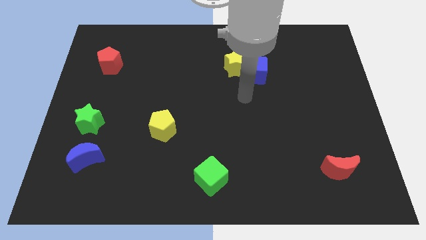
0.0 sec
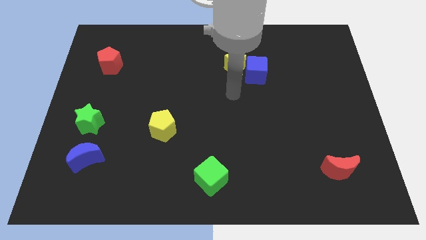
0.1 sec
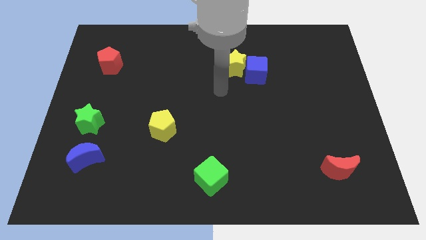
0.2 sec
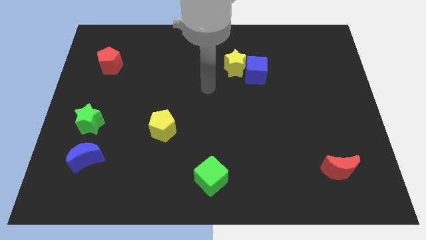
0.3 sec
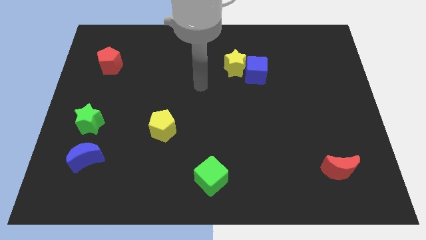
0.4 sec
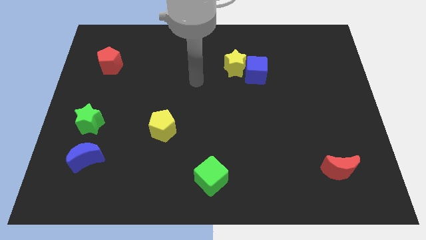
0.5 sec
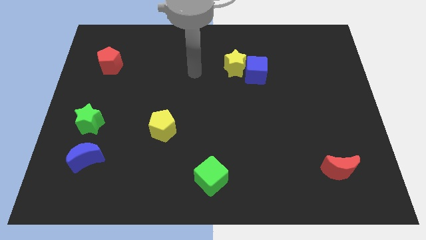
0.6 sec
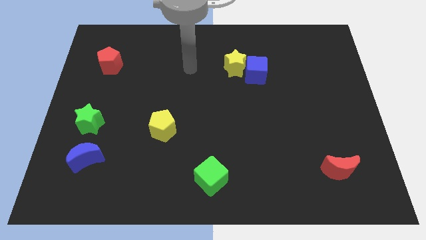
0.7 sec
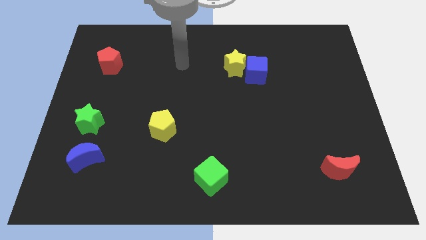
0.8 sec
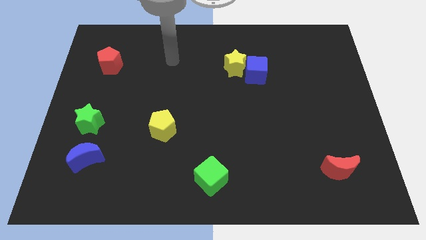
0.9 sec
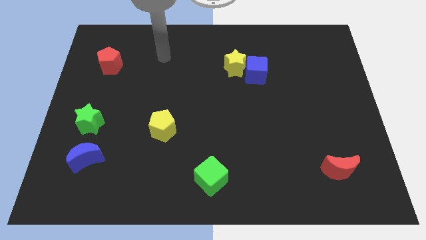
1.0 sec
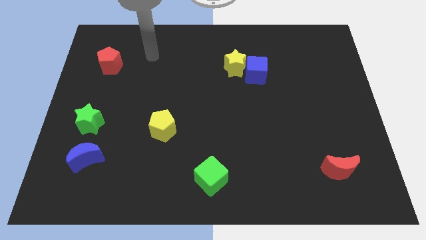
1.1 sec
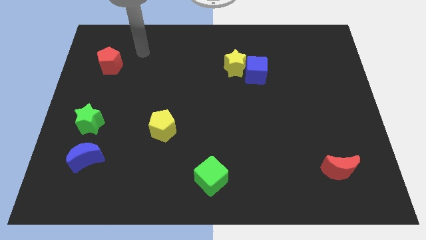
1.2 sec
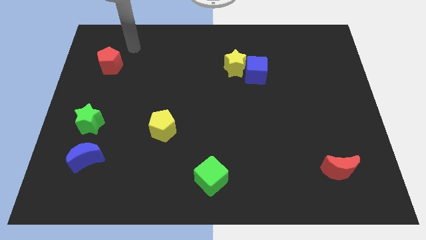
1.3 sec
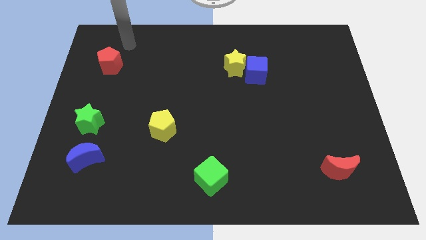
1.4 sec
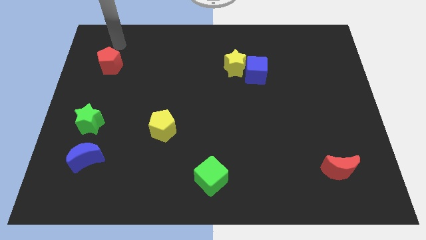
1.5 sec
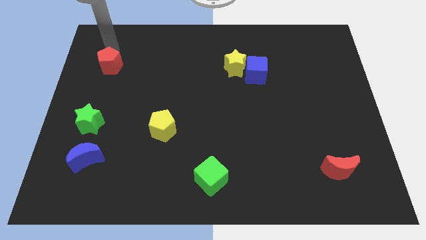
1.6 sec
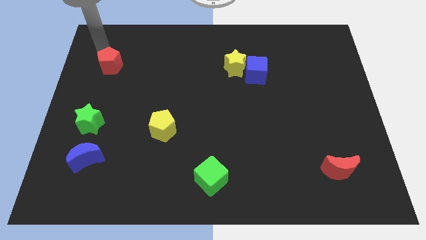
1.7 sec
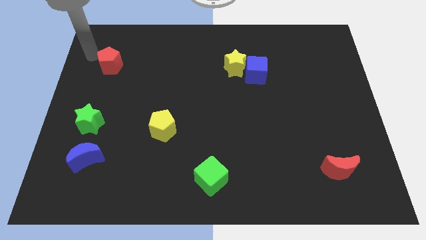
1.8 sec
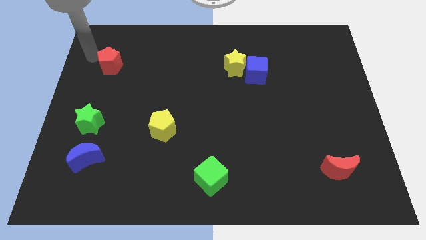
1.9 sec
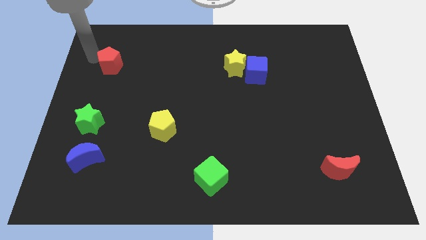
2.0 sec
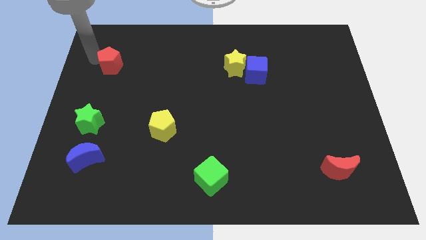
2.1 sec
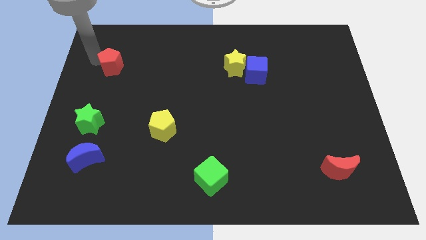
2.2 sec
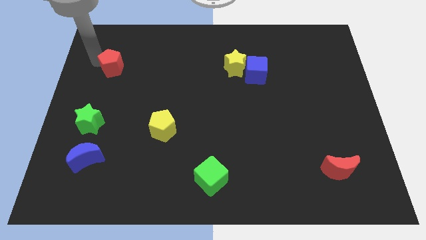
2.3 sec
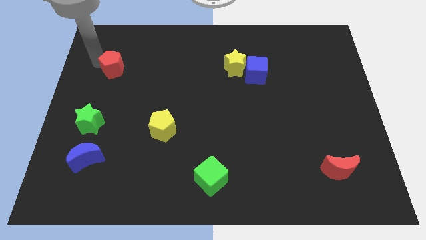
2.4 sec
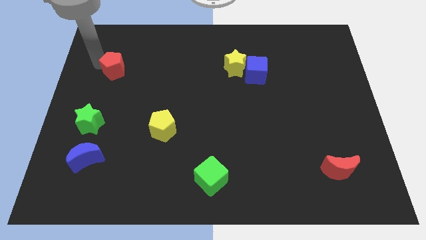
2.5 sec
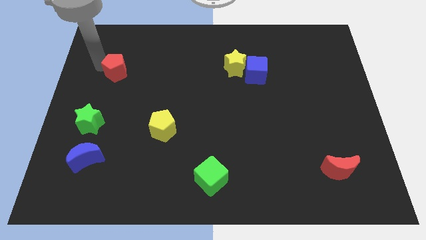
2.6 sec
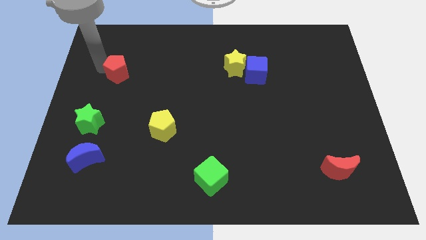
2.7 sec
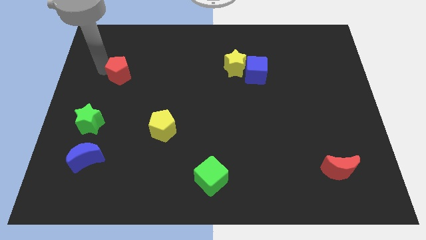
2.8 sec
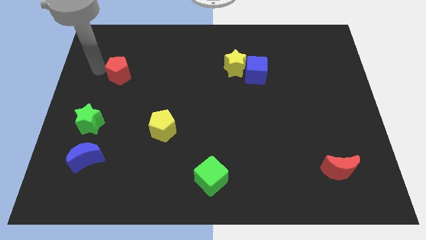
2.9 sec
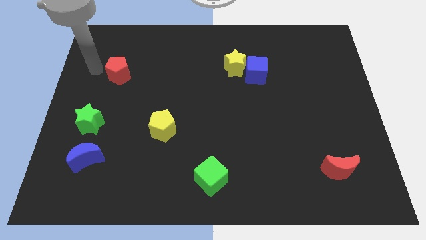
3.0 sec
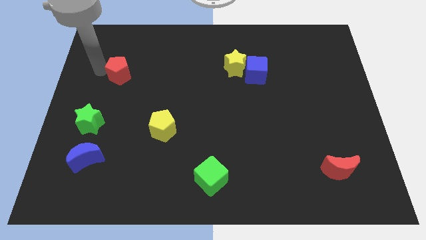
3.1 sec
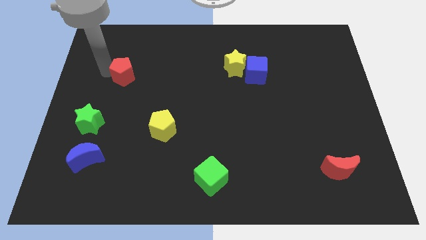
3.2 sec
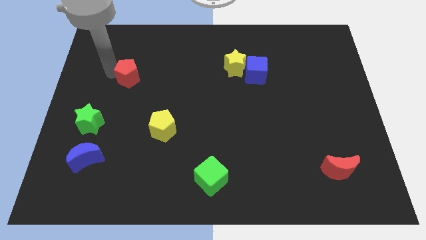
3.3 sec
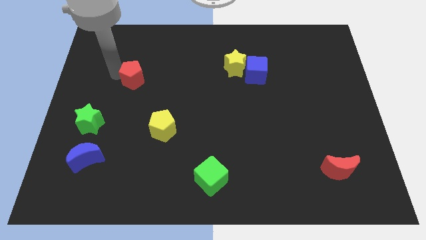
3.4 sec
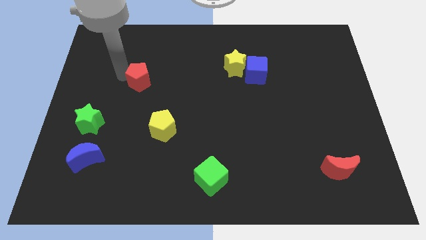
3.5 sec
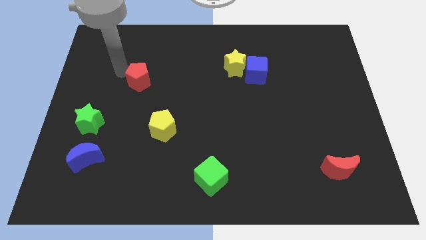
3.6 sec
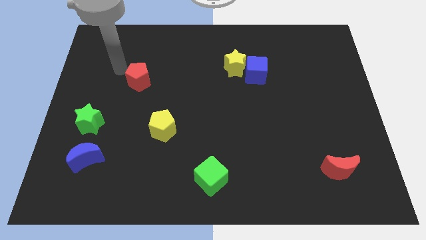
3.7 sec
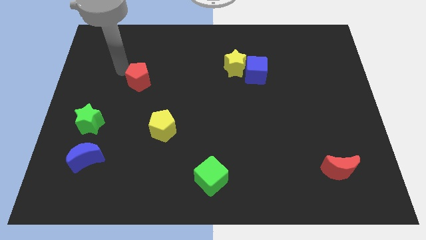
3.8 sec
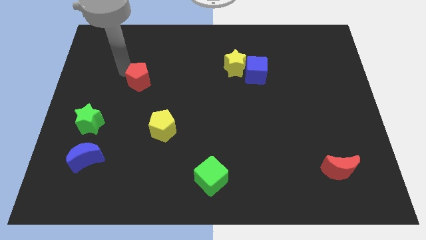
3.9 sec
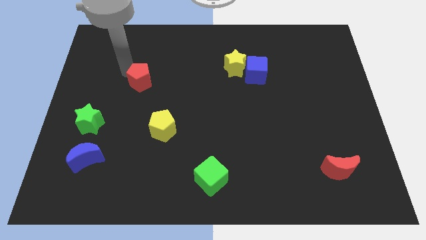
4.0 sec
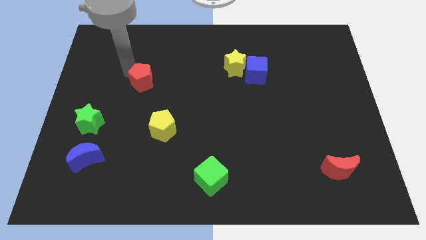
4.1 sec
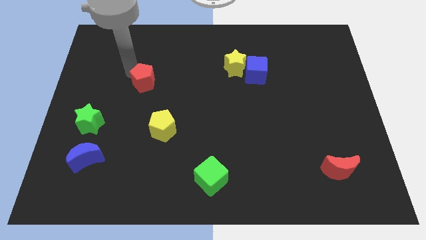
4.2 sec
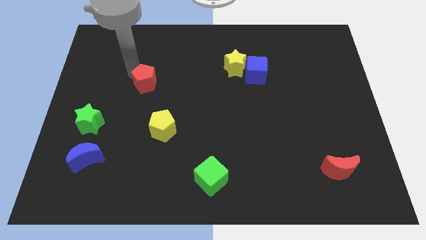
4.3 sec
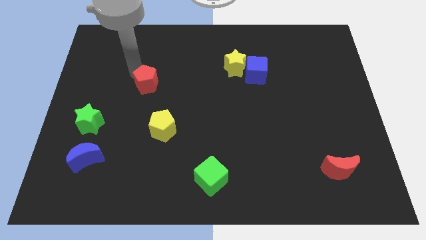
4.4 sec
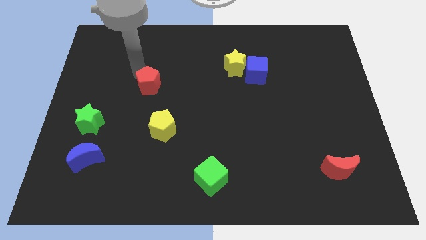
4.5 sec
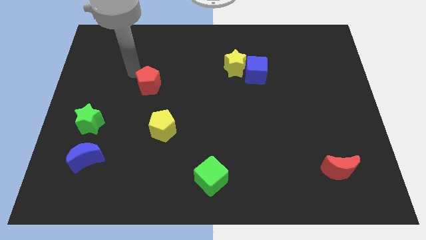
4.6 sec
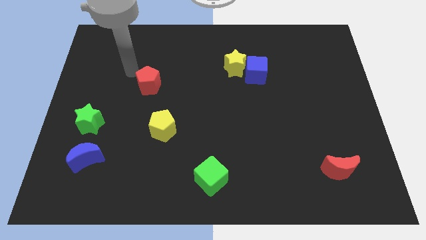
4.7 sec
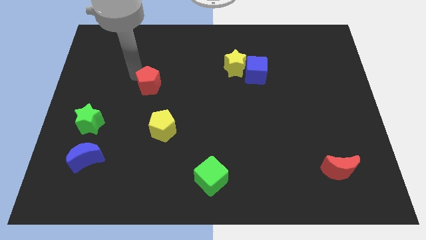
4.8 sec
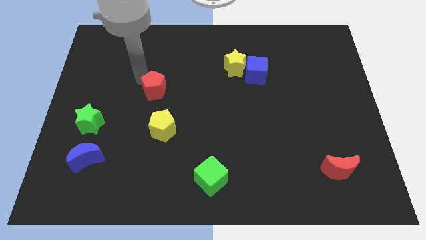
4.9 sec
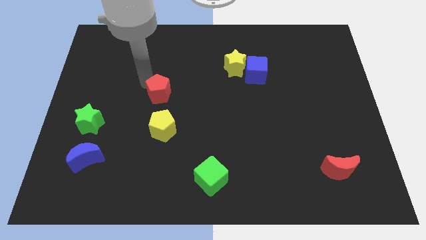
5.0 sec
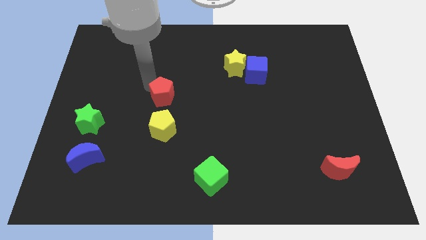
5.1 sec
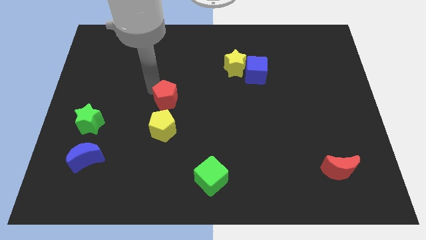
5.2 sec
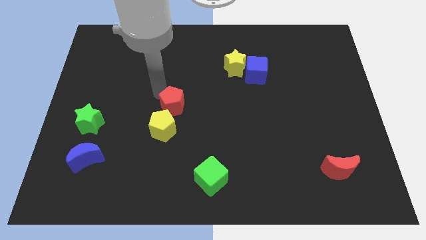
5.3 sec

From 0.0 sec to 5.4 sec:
move the red pentagon down and then to the right

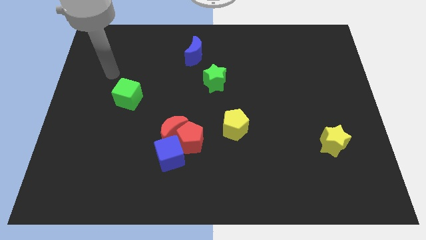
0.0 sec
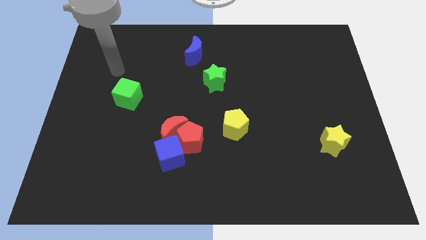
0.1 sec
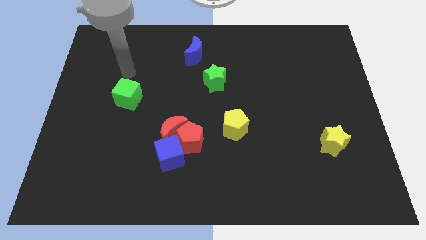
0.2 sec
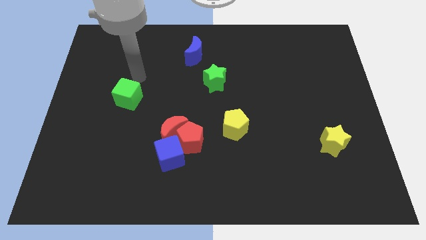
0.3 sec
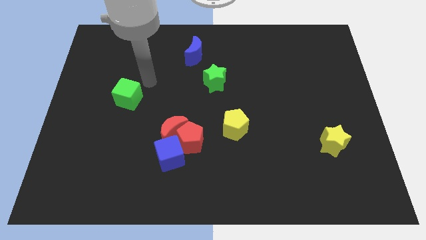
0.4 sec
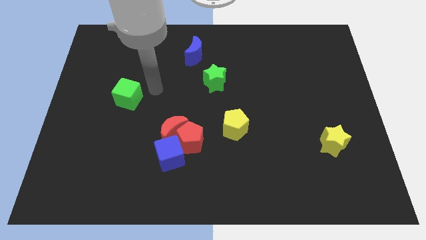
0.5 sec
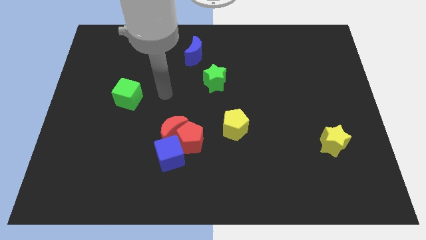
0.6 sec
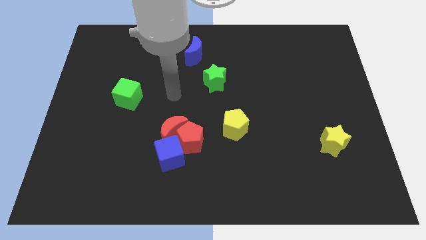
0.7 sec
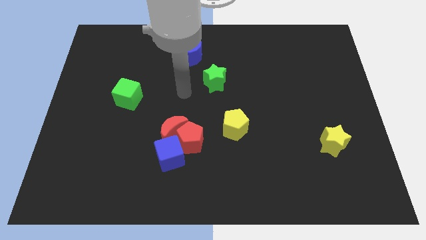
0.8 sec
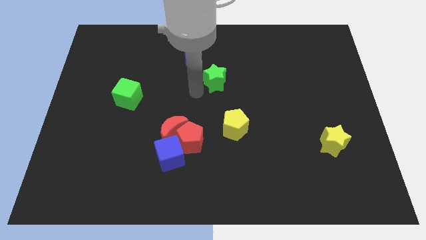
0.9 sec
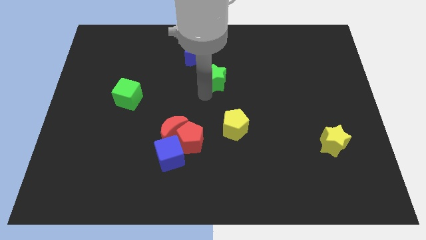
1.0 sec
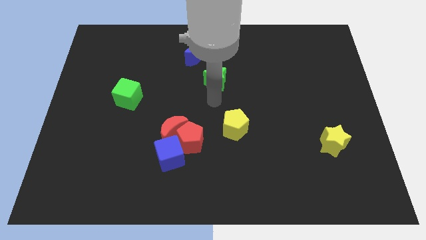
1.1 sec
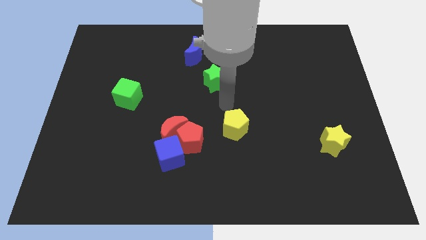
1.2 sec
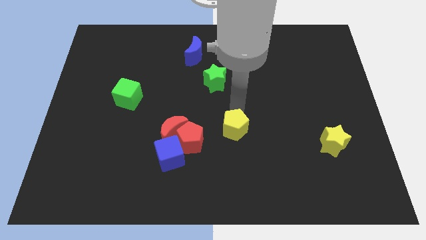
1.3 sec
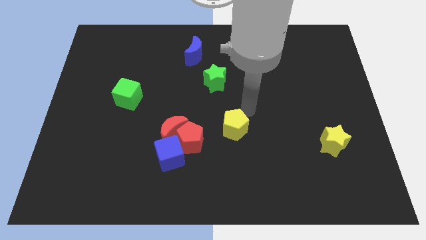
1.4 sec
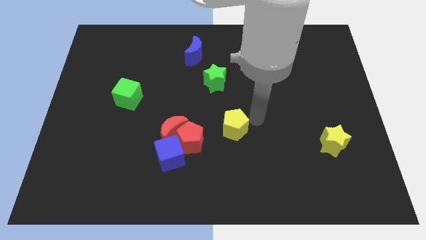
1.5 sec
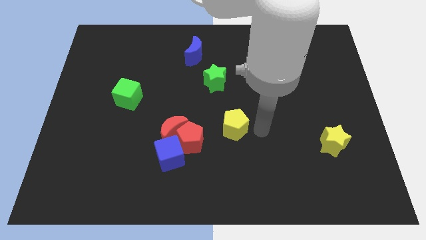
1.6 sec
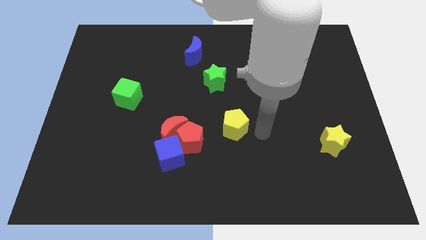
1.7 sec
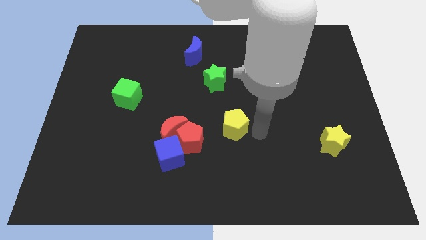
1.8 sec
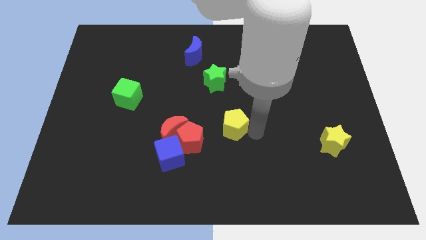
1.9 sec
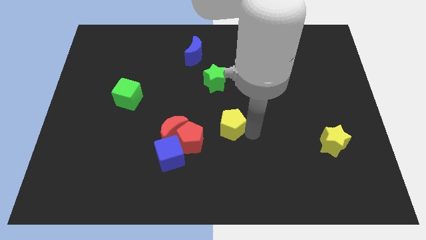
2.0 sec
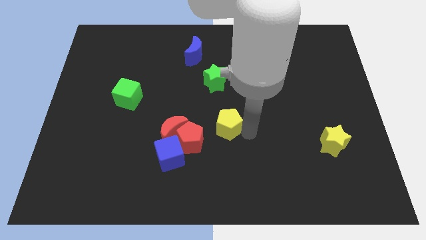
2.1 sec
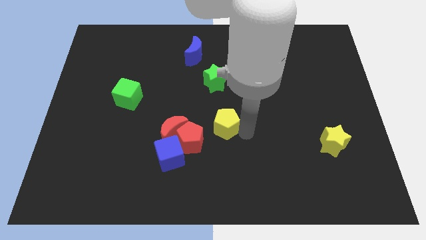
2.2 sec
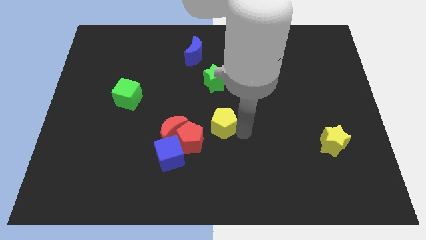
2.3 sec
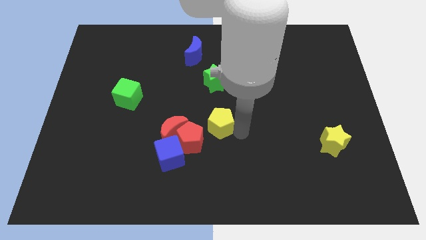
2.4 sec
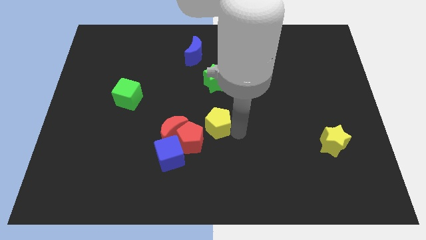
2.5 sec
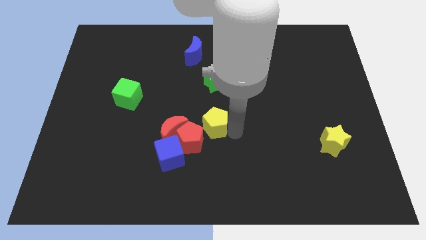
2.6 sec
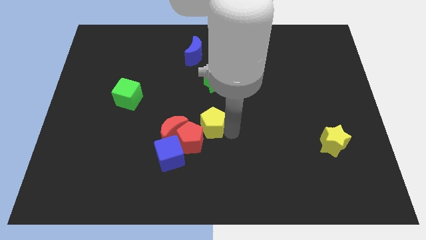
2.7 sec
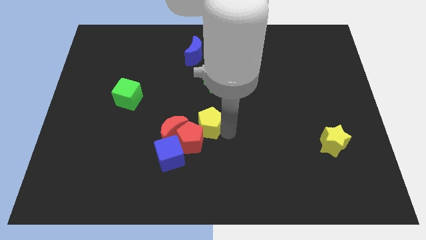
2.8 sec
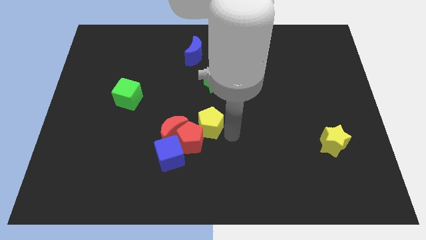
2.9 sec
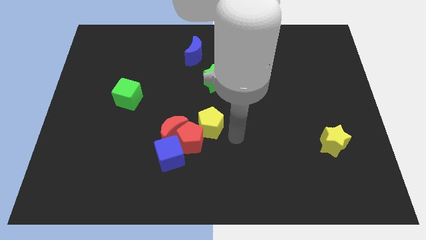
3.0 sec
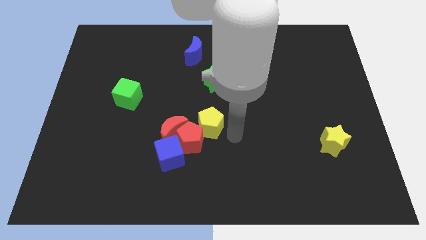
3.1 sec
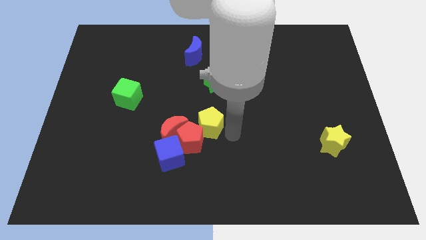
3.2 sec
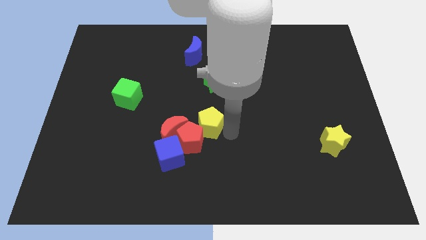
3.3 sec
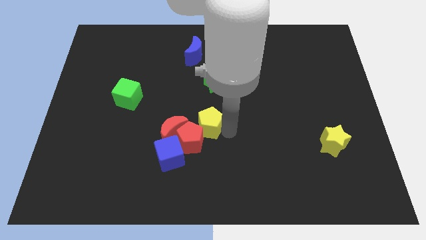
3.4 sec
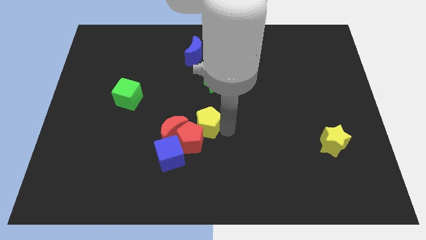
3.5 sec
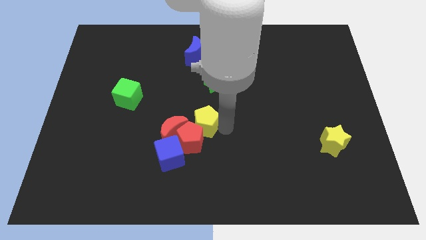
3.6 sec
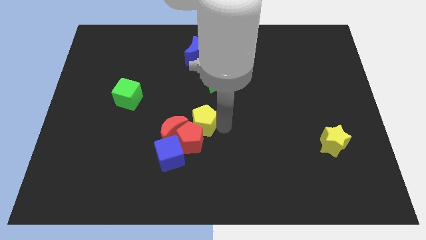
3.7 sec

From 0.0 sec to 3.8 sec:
push the yellow pentagon slightly left
